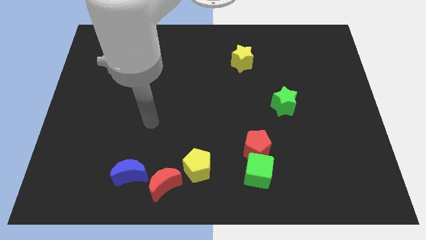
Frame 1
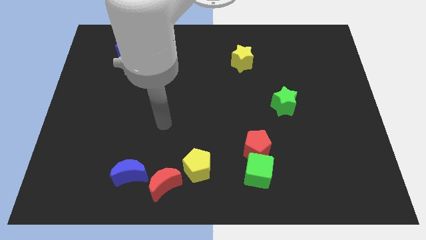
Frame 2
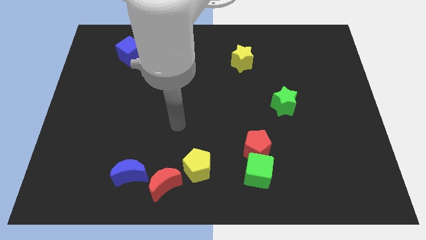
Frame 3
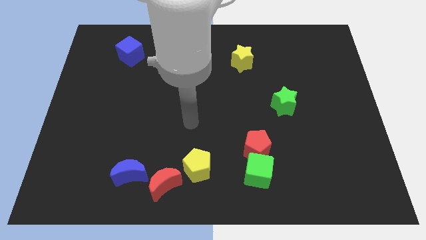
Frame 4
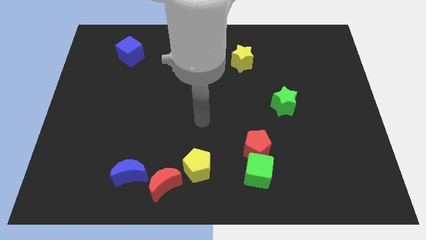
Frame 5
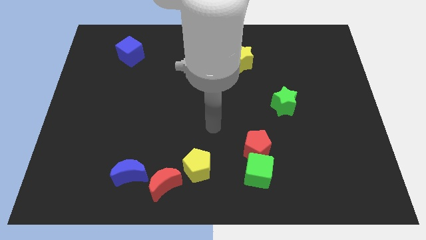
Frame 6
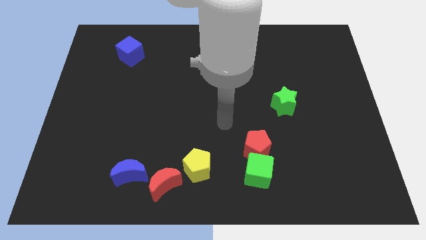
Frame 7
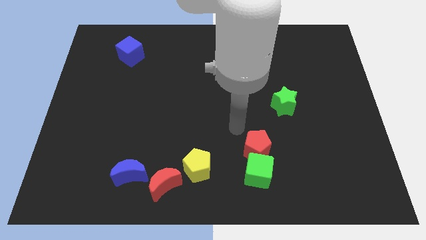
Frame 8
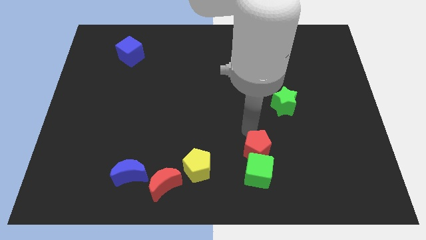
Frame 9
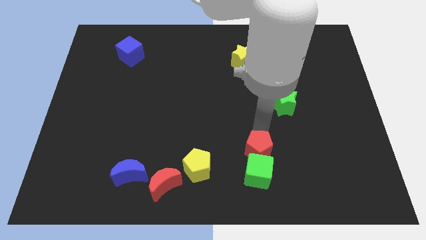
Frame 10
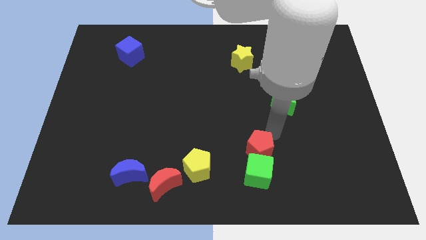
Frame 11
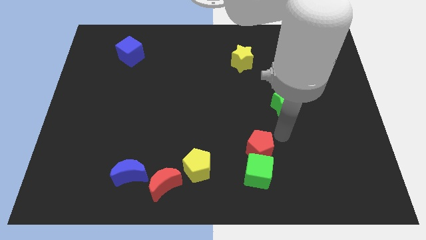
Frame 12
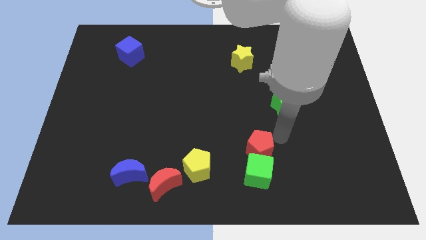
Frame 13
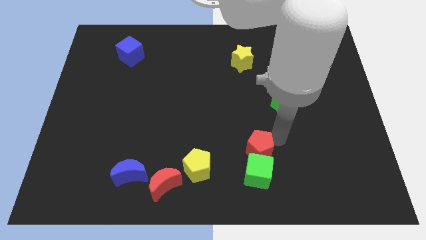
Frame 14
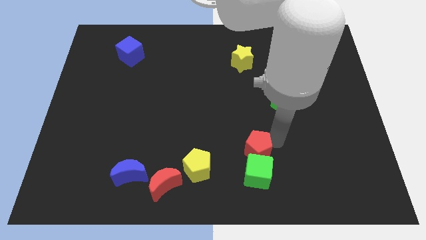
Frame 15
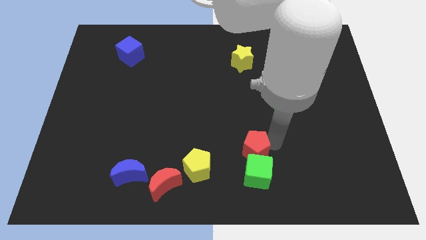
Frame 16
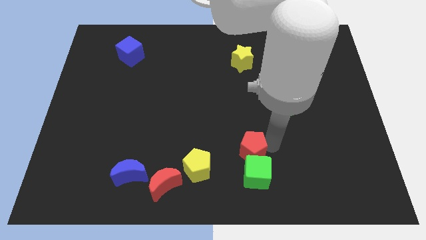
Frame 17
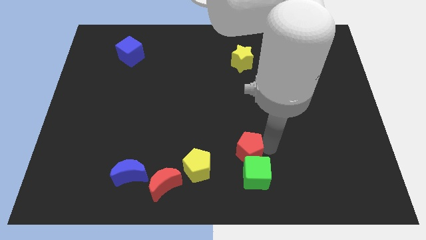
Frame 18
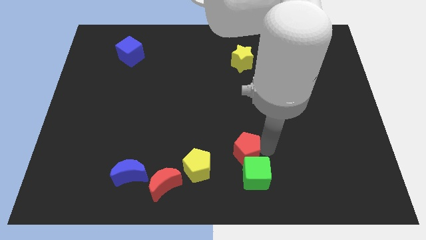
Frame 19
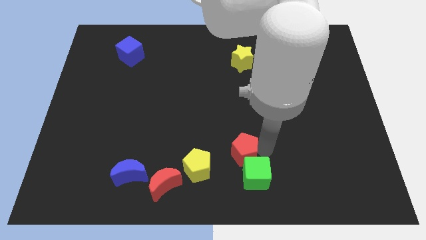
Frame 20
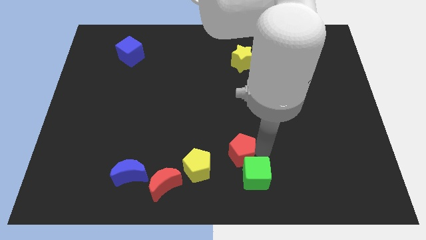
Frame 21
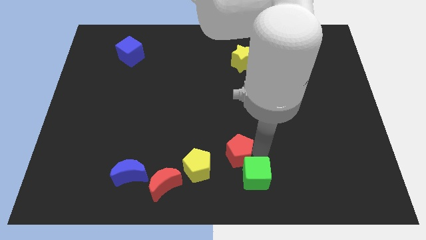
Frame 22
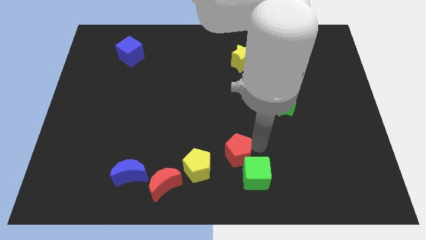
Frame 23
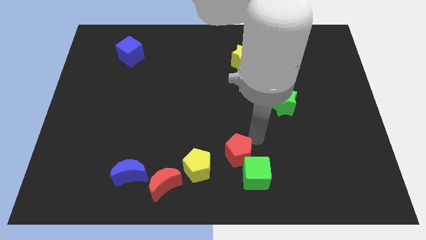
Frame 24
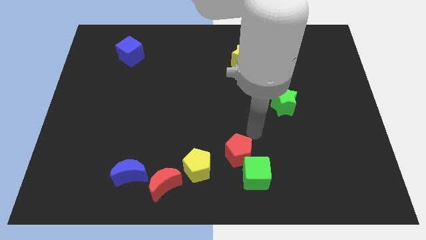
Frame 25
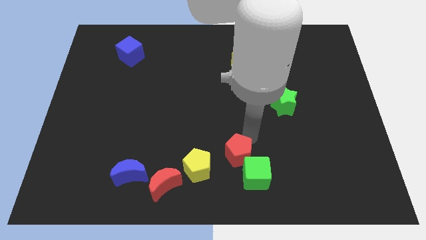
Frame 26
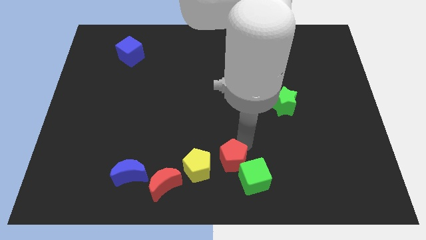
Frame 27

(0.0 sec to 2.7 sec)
move the red pentagon to the bottom side

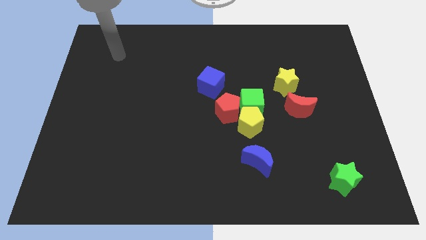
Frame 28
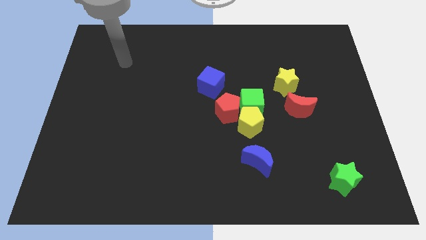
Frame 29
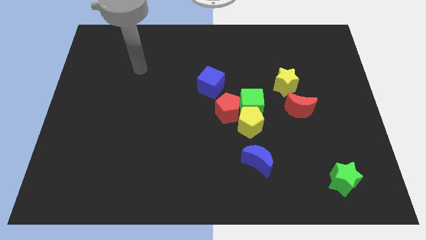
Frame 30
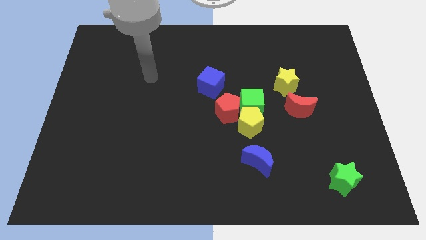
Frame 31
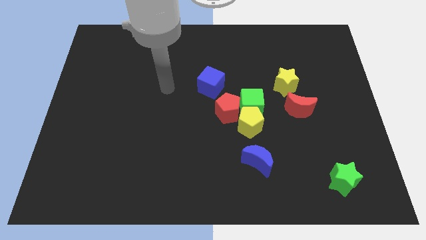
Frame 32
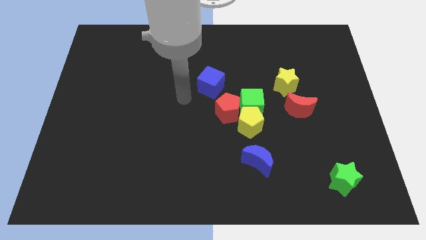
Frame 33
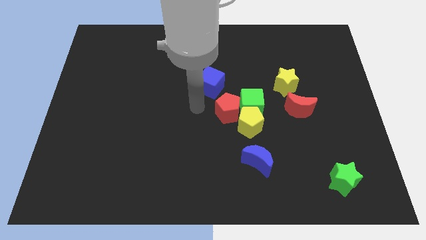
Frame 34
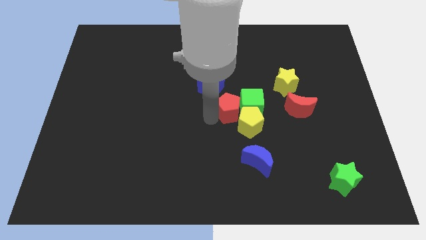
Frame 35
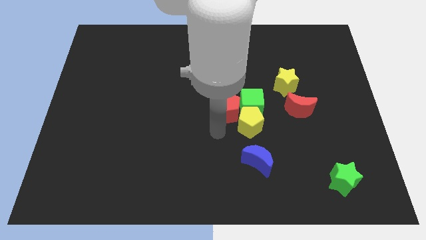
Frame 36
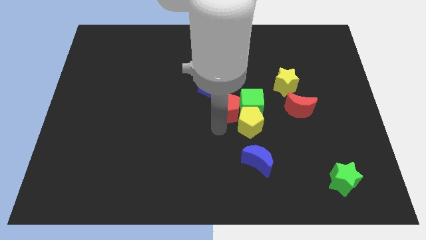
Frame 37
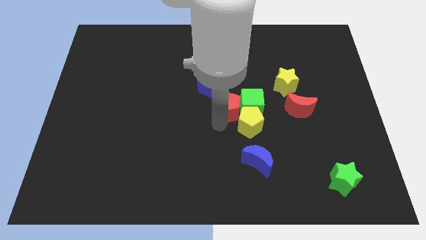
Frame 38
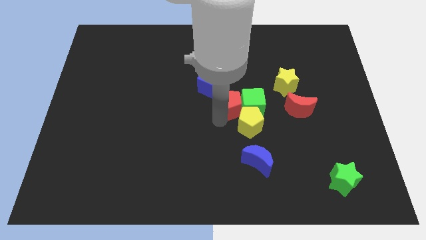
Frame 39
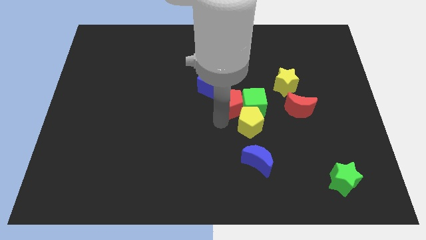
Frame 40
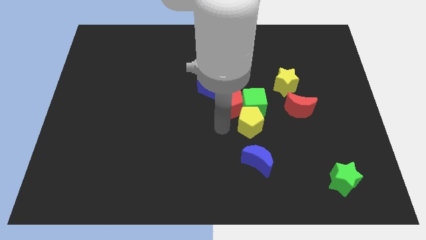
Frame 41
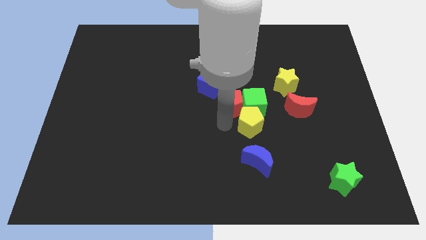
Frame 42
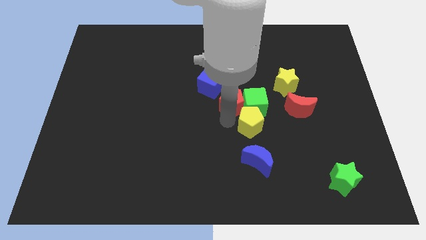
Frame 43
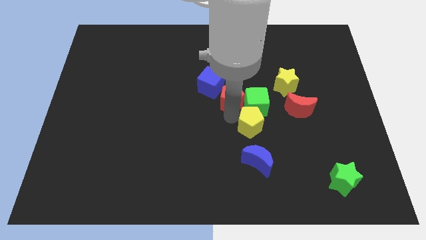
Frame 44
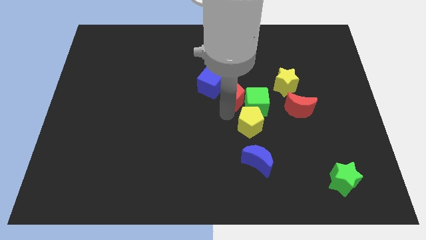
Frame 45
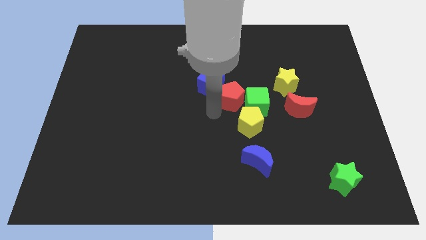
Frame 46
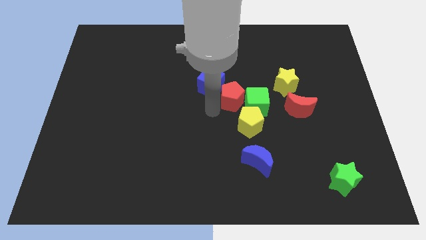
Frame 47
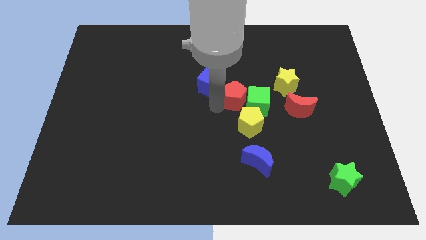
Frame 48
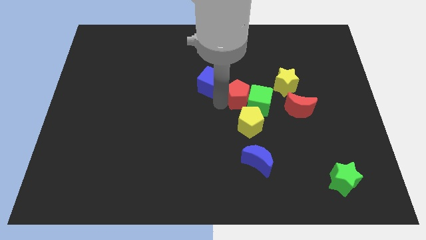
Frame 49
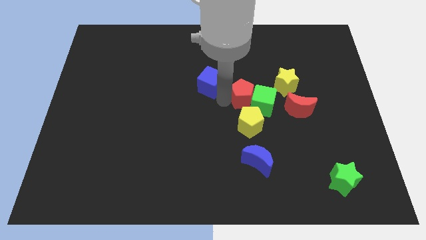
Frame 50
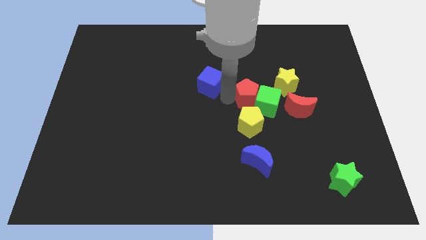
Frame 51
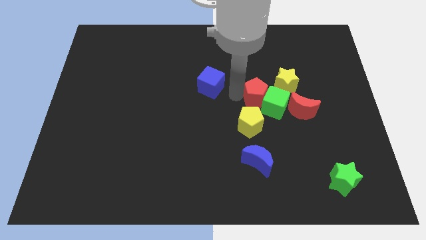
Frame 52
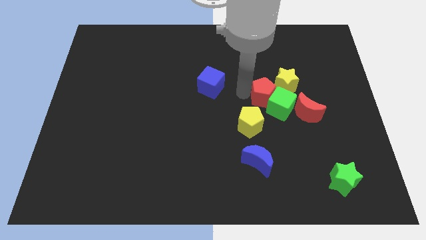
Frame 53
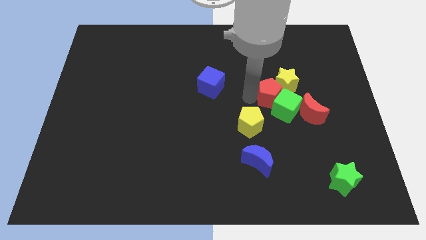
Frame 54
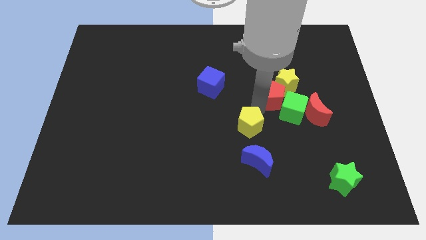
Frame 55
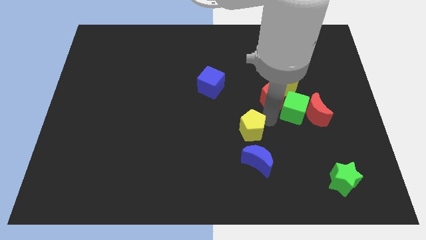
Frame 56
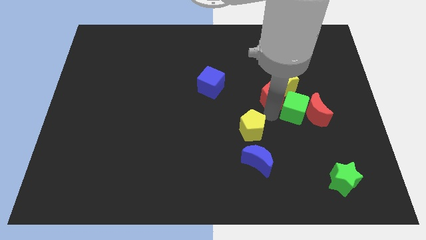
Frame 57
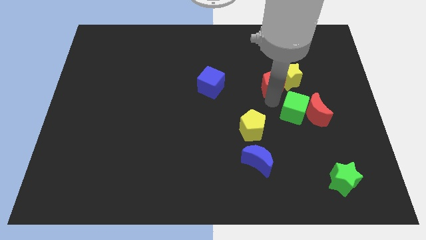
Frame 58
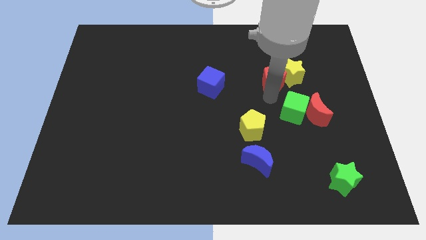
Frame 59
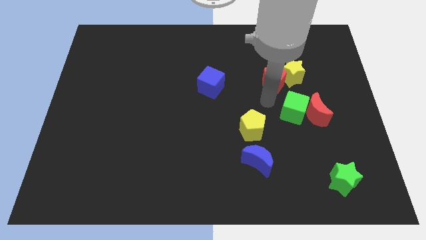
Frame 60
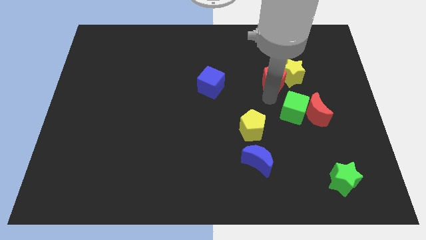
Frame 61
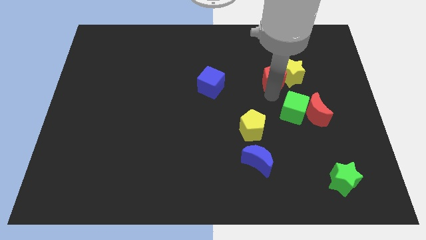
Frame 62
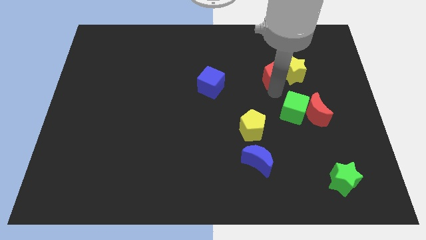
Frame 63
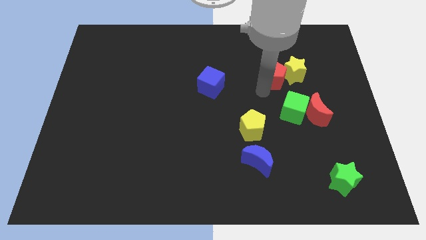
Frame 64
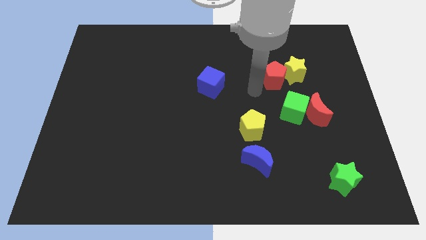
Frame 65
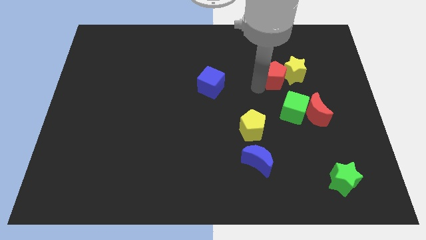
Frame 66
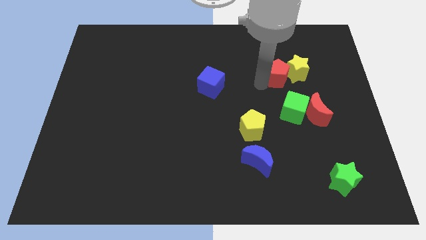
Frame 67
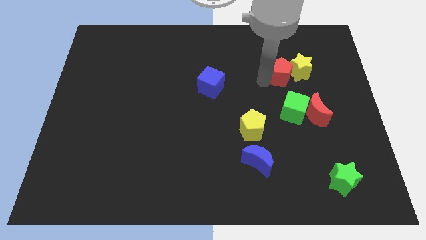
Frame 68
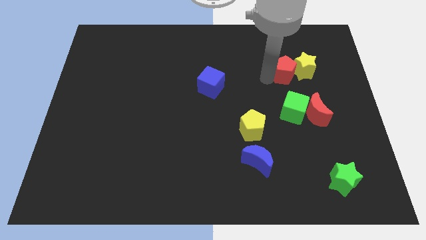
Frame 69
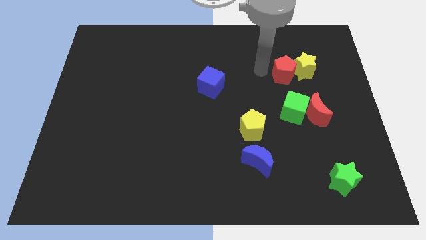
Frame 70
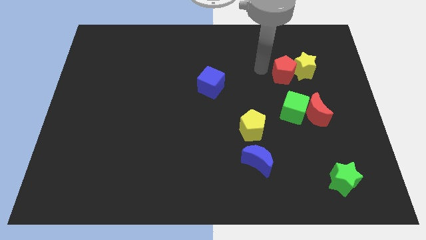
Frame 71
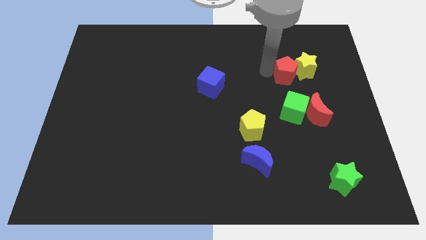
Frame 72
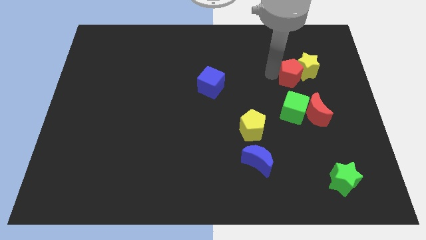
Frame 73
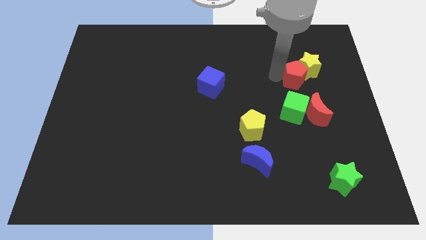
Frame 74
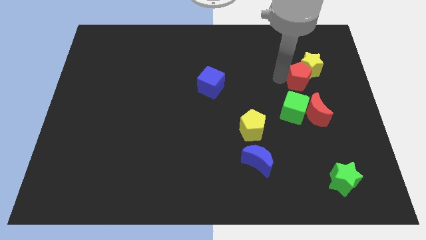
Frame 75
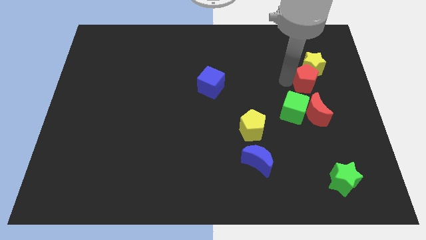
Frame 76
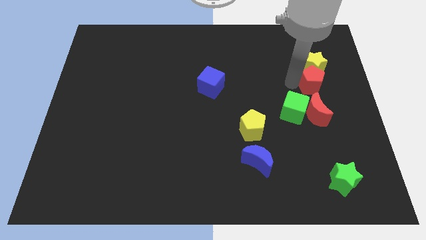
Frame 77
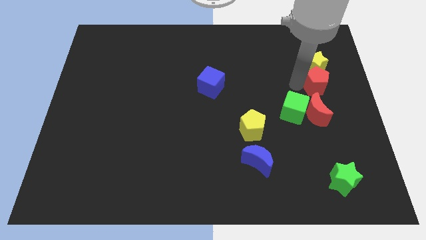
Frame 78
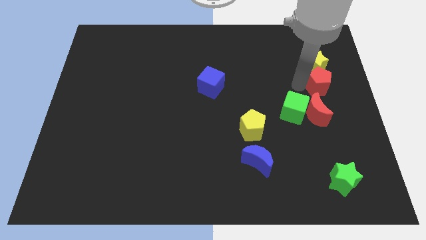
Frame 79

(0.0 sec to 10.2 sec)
move the red pentagon to the center right

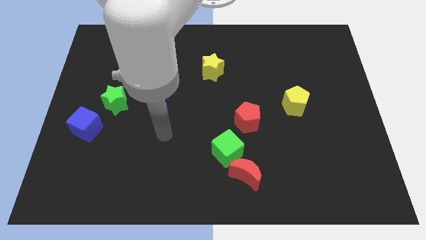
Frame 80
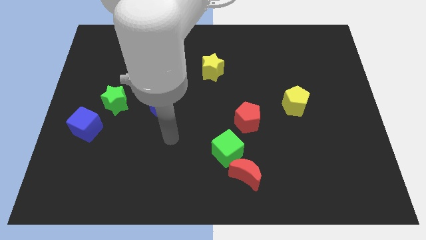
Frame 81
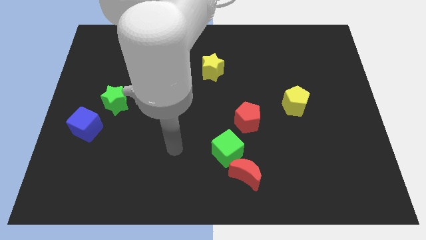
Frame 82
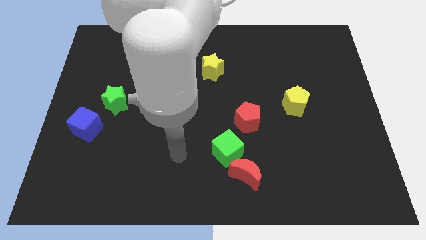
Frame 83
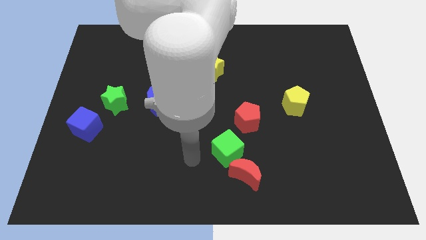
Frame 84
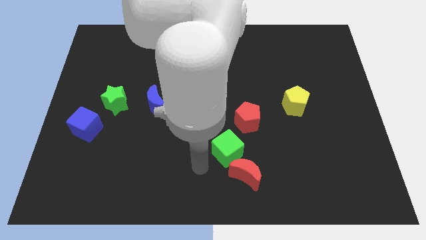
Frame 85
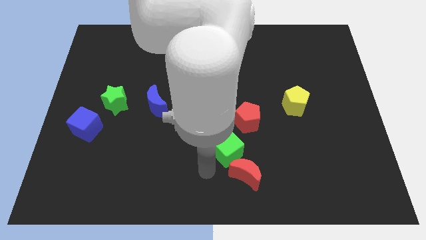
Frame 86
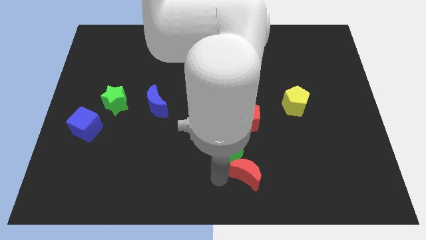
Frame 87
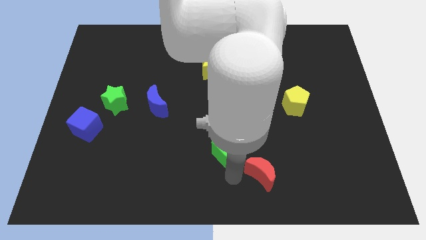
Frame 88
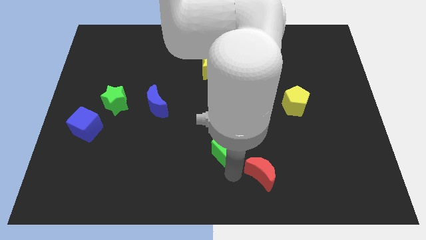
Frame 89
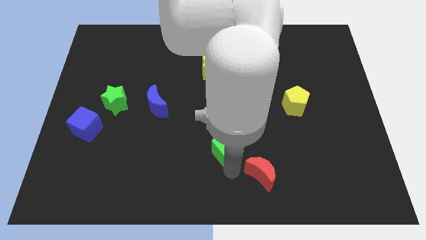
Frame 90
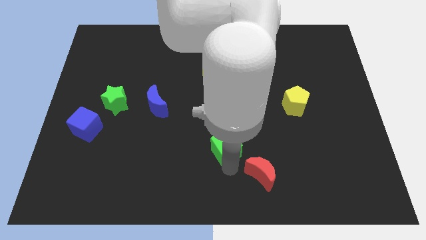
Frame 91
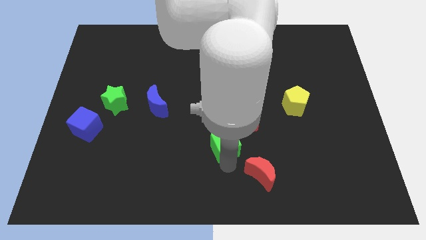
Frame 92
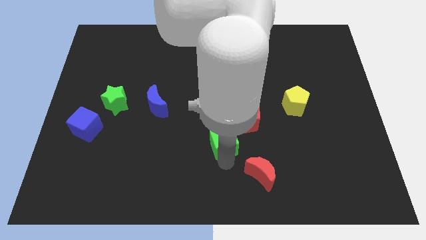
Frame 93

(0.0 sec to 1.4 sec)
move the green cube to the middle
